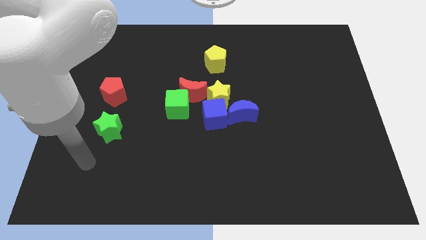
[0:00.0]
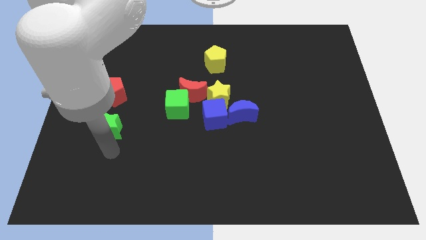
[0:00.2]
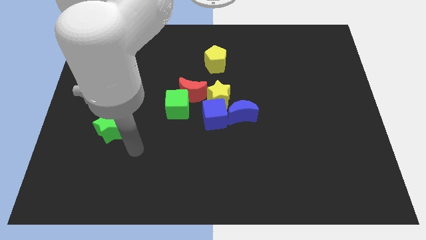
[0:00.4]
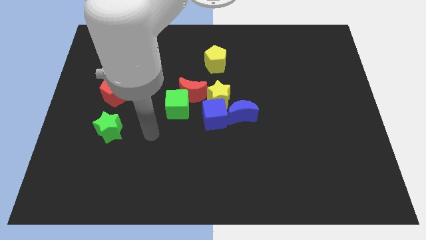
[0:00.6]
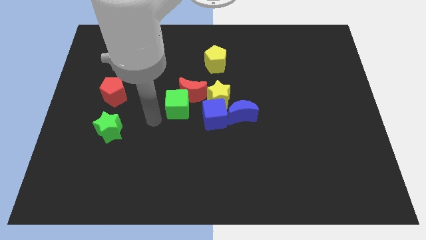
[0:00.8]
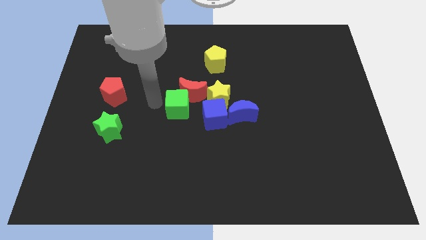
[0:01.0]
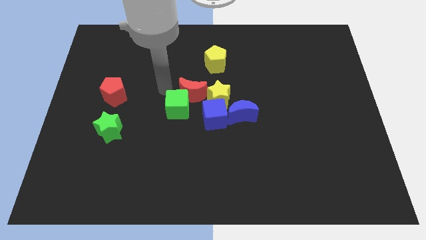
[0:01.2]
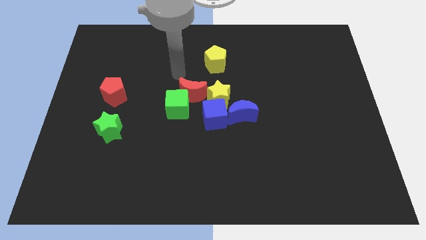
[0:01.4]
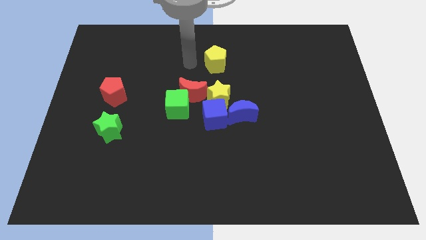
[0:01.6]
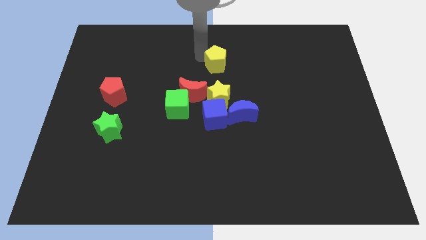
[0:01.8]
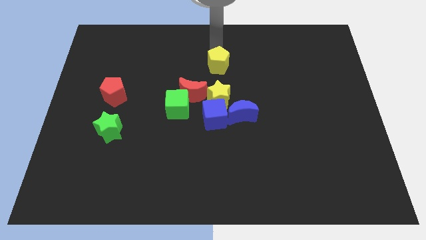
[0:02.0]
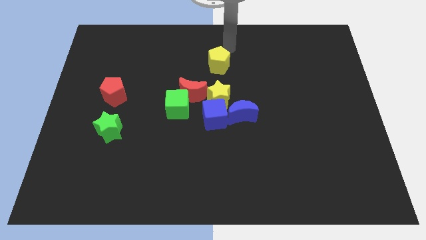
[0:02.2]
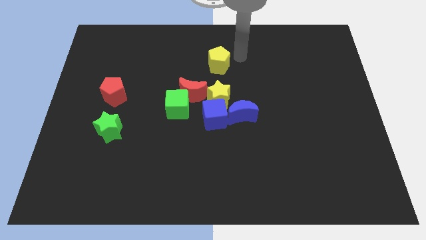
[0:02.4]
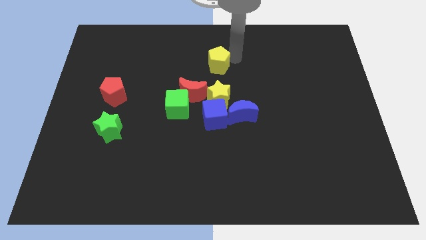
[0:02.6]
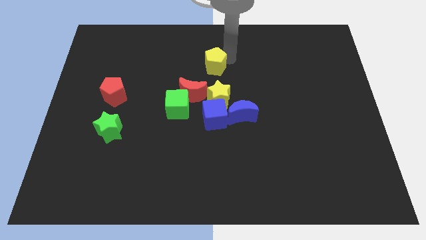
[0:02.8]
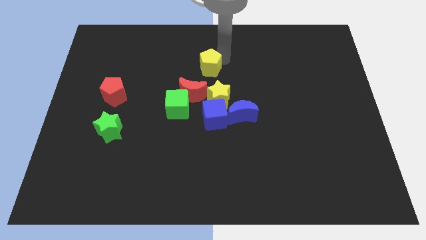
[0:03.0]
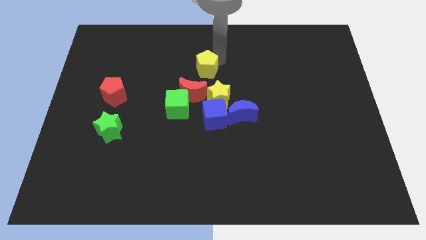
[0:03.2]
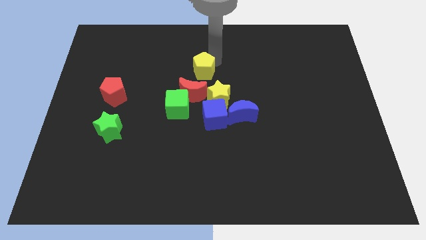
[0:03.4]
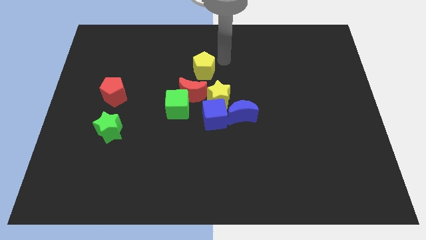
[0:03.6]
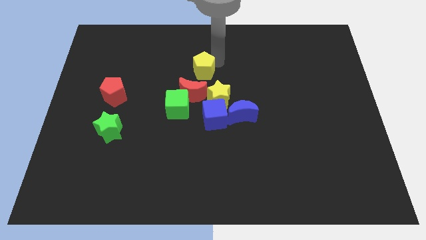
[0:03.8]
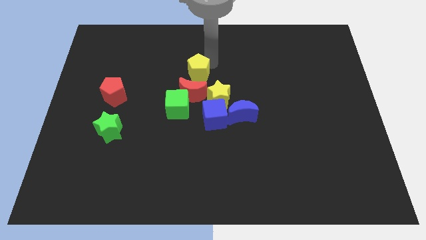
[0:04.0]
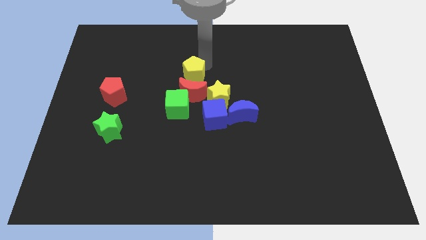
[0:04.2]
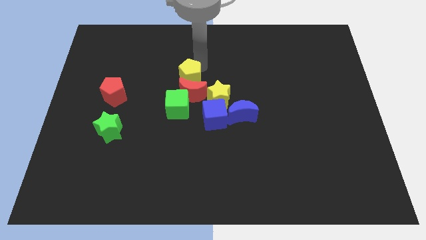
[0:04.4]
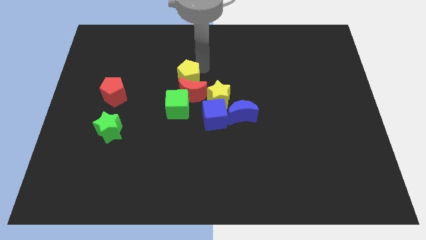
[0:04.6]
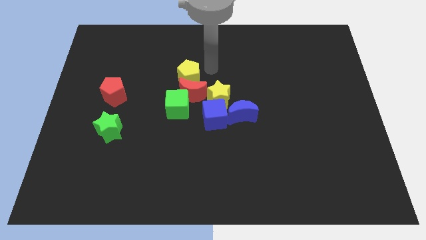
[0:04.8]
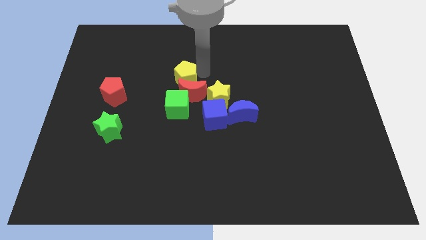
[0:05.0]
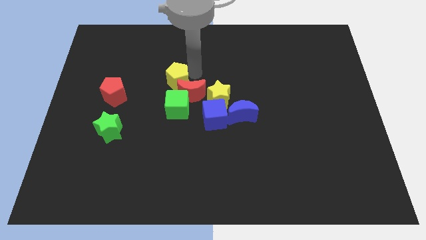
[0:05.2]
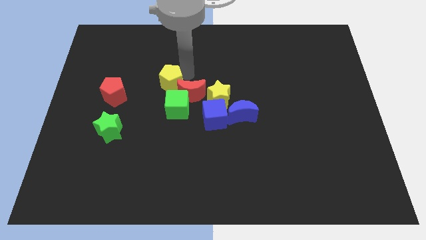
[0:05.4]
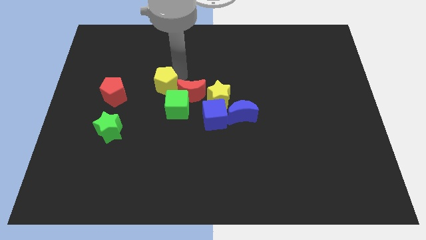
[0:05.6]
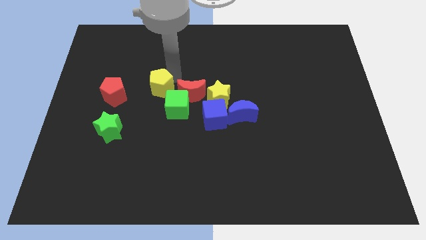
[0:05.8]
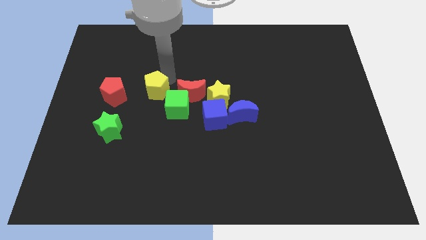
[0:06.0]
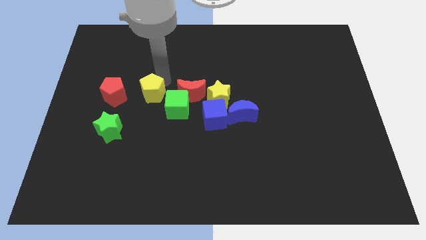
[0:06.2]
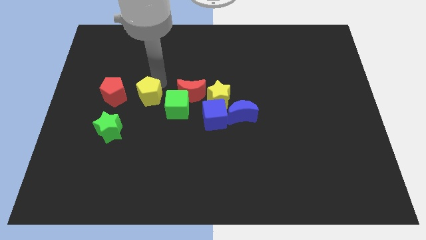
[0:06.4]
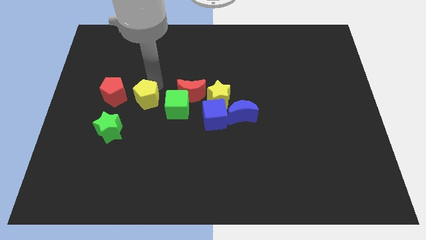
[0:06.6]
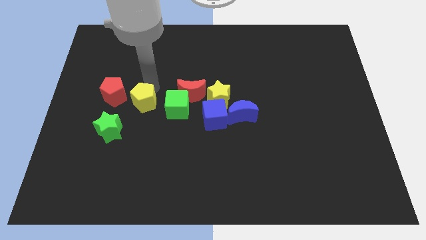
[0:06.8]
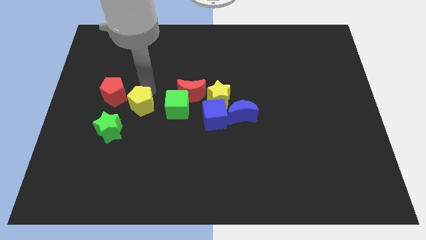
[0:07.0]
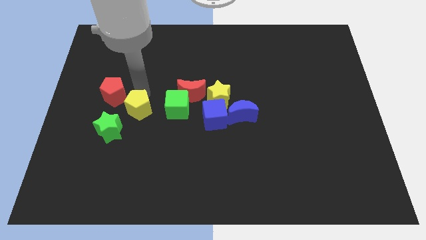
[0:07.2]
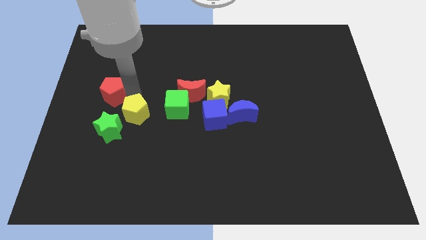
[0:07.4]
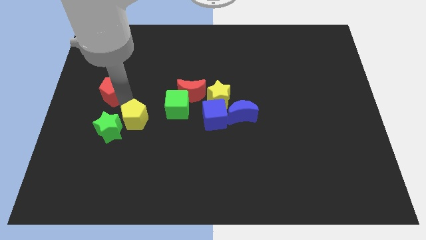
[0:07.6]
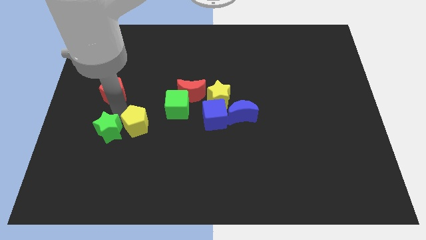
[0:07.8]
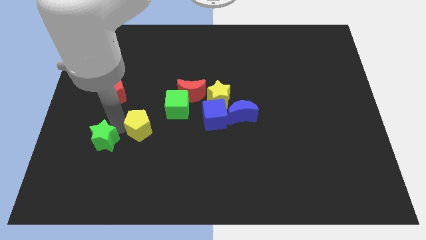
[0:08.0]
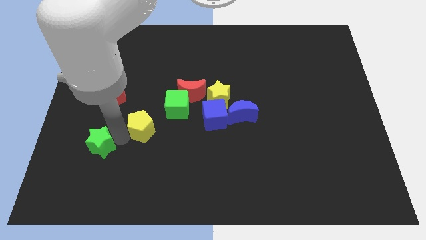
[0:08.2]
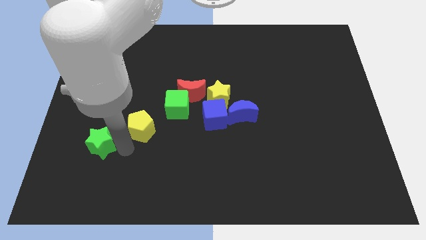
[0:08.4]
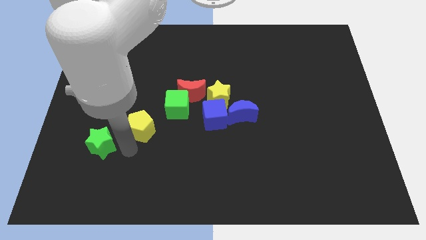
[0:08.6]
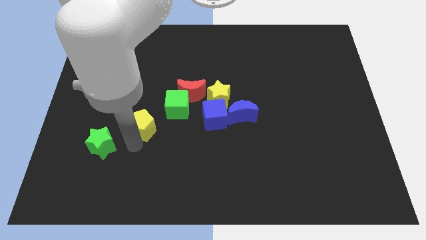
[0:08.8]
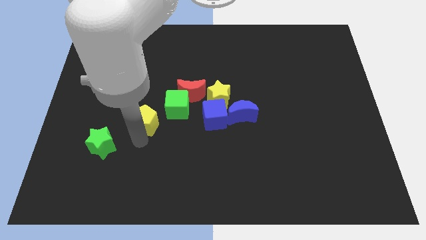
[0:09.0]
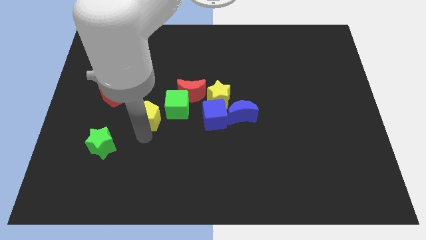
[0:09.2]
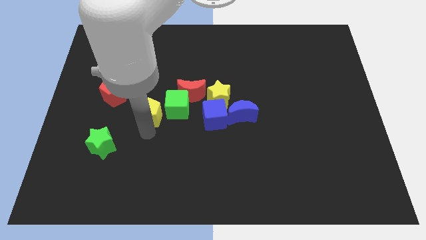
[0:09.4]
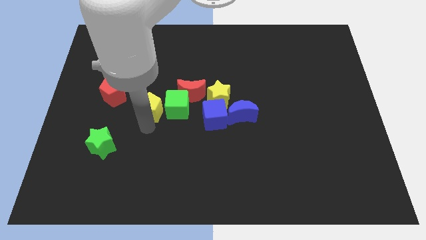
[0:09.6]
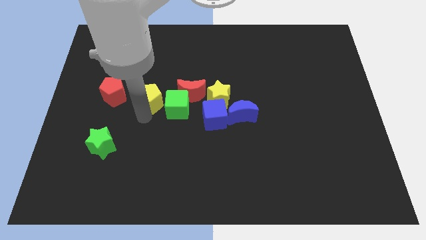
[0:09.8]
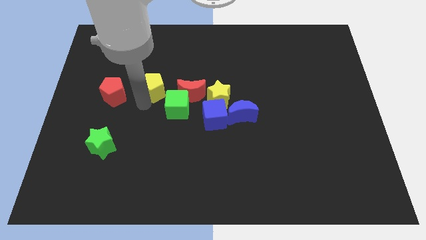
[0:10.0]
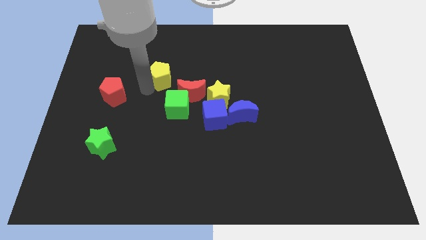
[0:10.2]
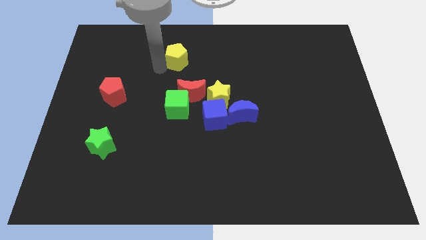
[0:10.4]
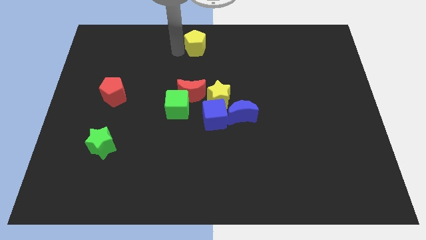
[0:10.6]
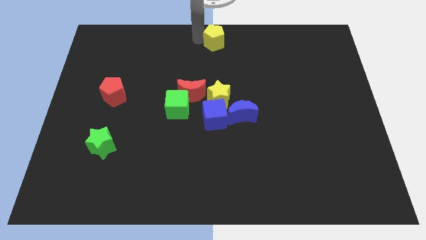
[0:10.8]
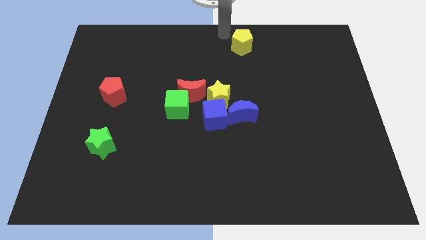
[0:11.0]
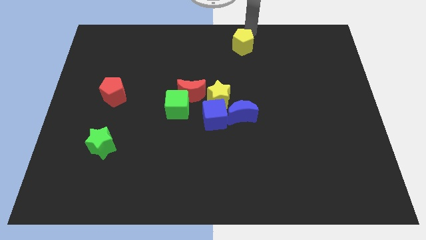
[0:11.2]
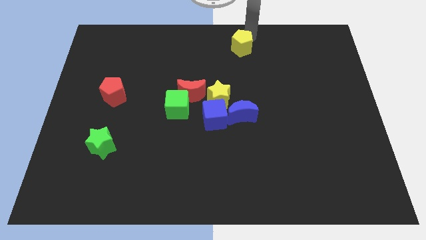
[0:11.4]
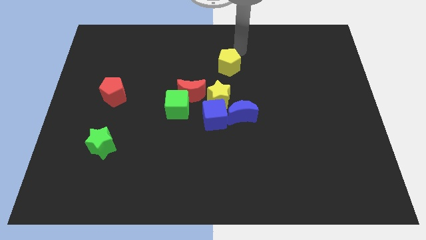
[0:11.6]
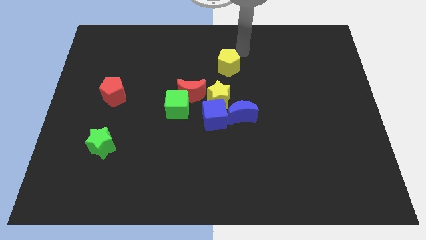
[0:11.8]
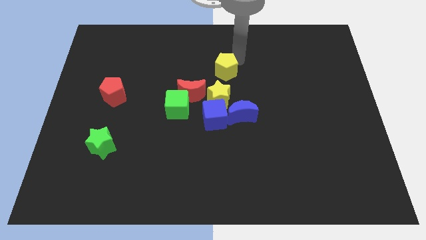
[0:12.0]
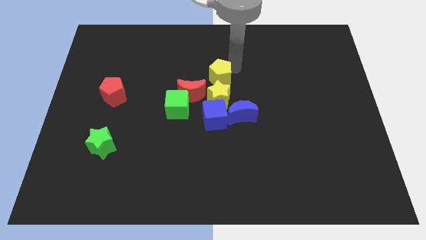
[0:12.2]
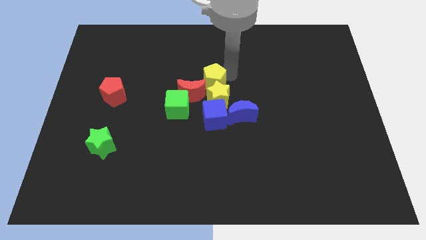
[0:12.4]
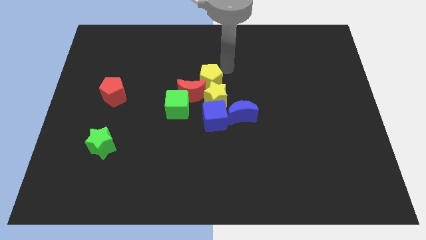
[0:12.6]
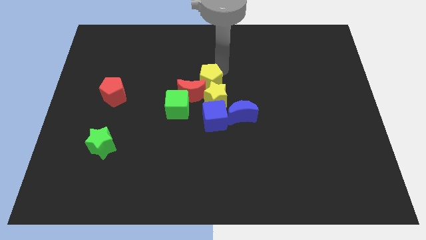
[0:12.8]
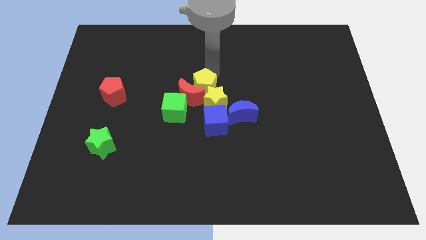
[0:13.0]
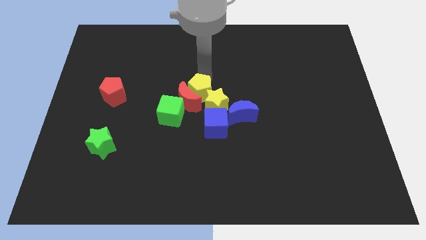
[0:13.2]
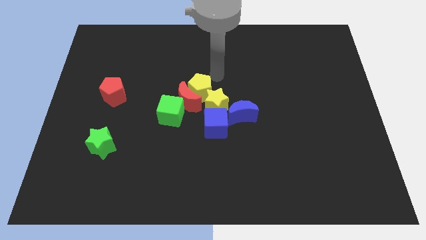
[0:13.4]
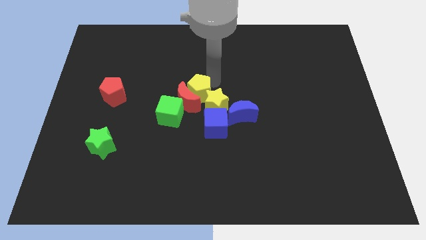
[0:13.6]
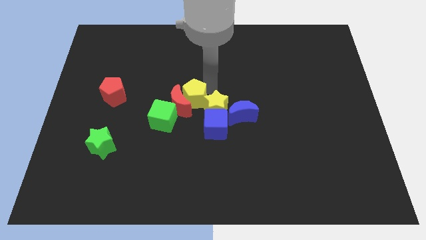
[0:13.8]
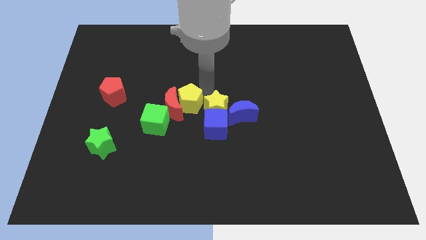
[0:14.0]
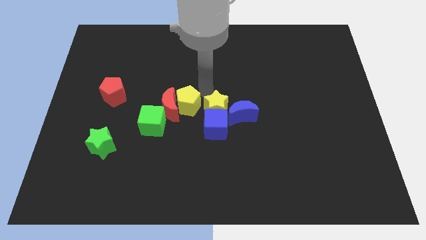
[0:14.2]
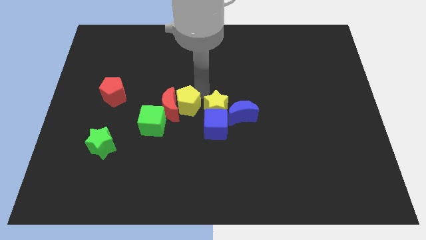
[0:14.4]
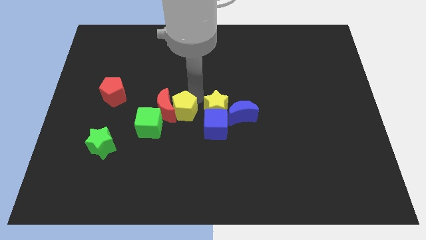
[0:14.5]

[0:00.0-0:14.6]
move the yellow pentagon to the bottom left side of the yellow star

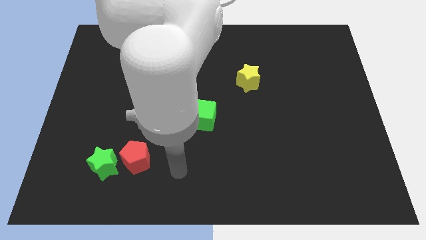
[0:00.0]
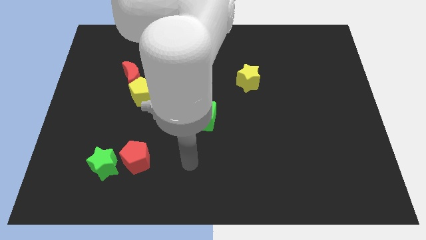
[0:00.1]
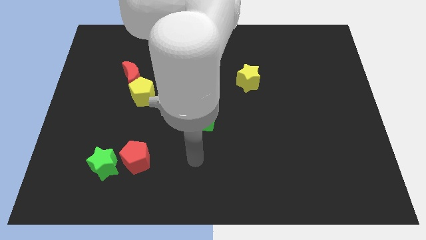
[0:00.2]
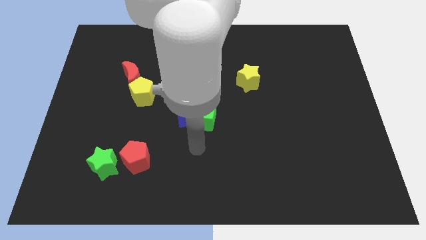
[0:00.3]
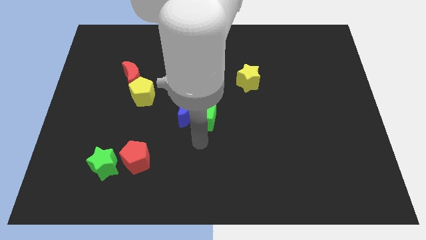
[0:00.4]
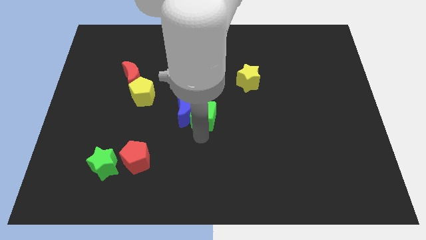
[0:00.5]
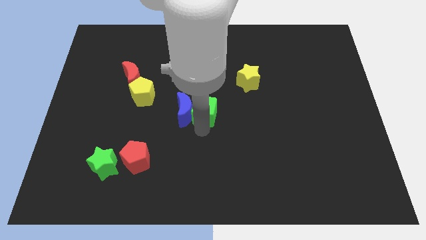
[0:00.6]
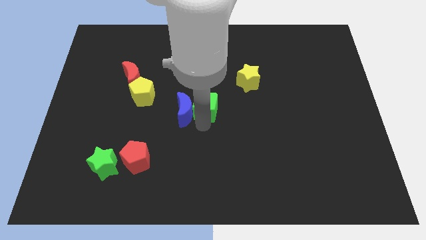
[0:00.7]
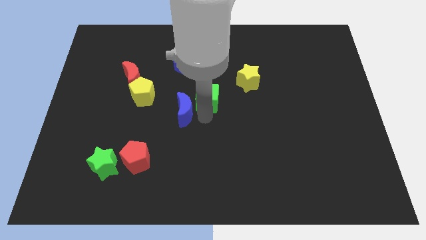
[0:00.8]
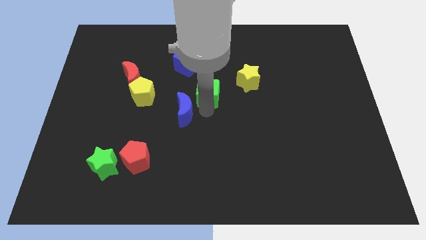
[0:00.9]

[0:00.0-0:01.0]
move the green cube to the left of the yellow star
